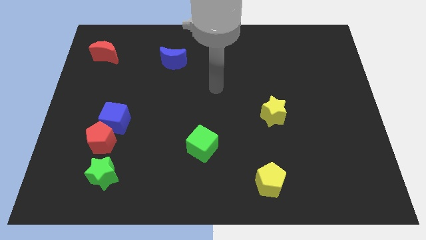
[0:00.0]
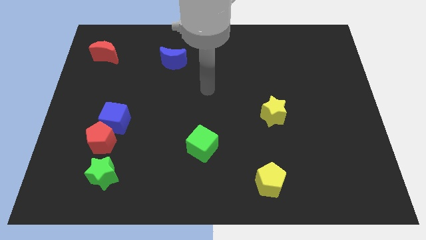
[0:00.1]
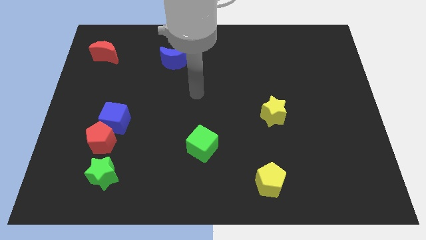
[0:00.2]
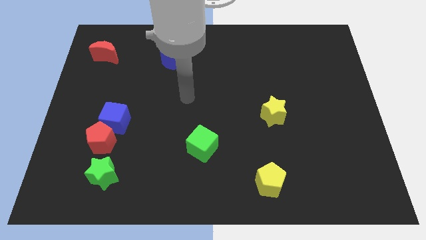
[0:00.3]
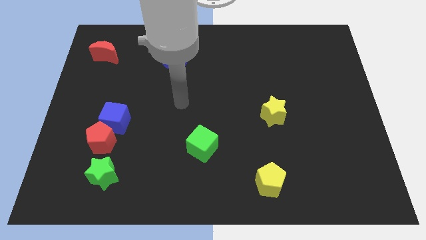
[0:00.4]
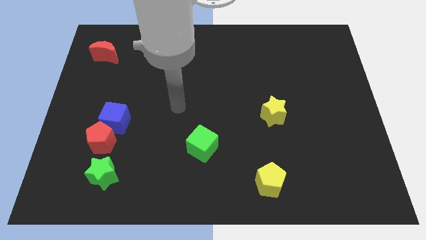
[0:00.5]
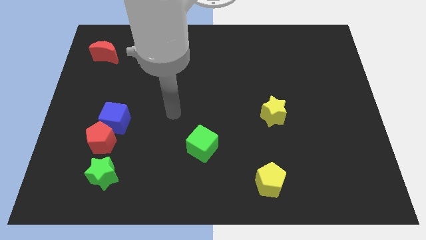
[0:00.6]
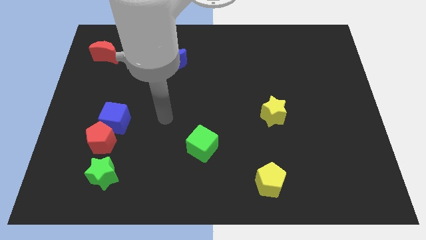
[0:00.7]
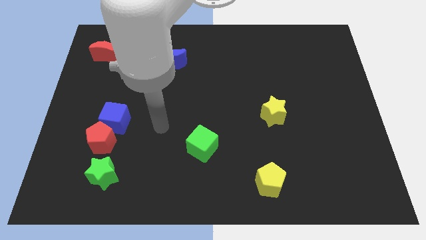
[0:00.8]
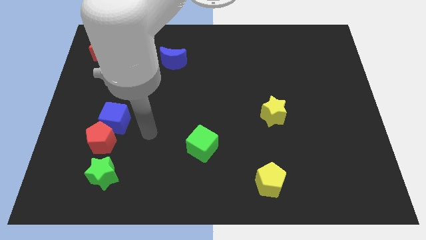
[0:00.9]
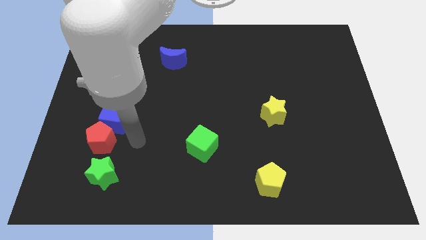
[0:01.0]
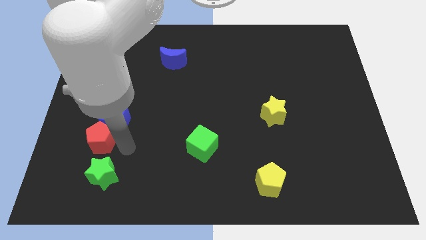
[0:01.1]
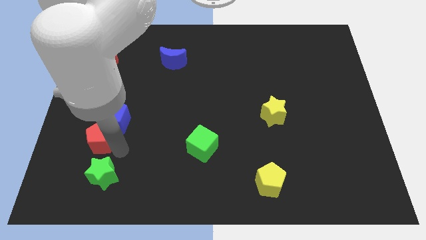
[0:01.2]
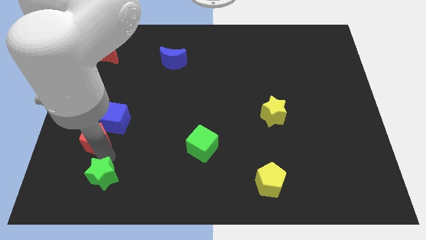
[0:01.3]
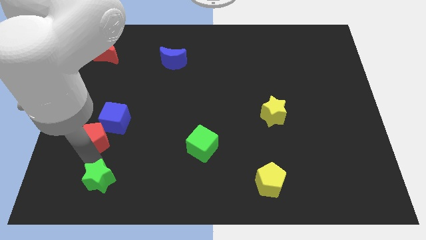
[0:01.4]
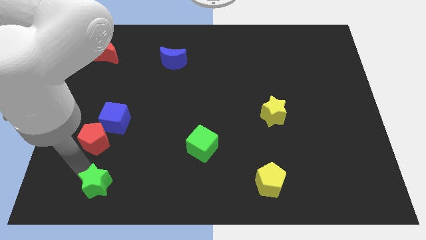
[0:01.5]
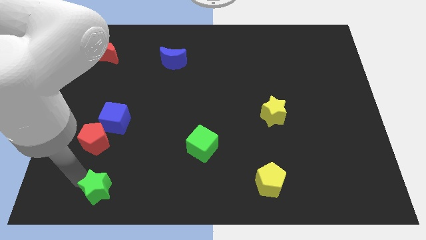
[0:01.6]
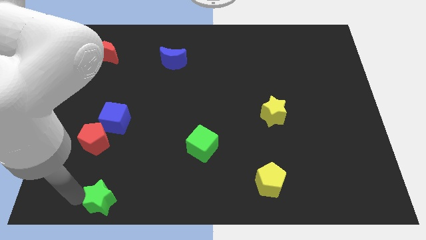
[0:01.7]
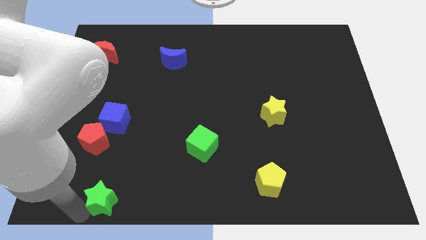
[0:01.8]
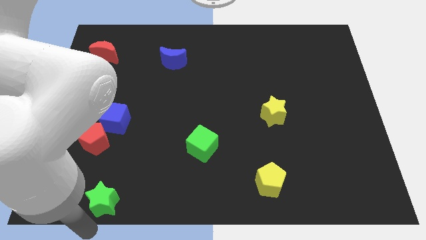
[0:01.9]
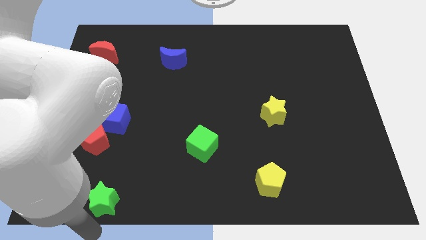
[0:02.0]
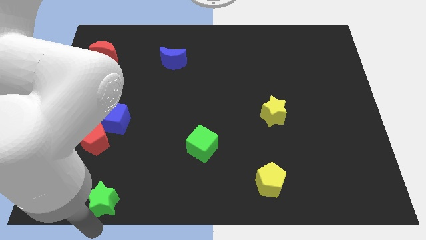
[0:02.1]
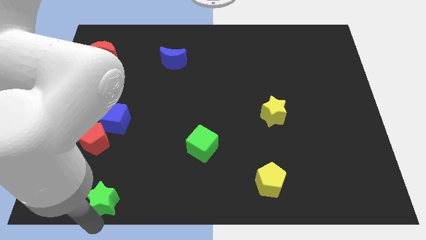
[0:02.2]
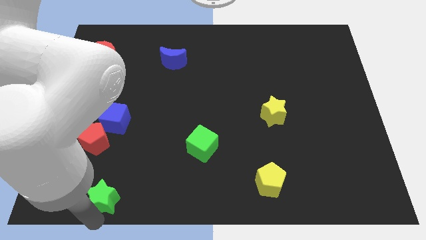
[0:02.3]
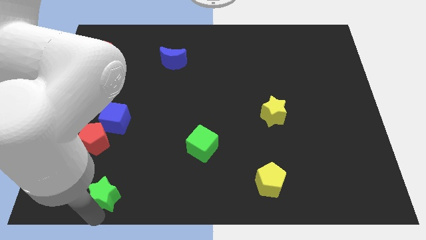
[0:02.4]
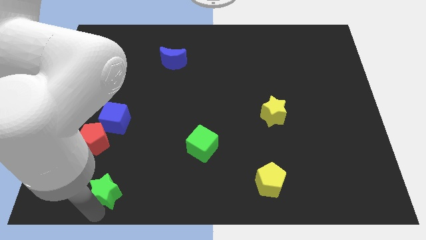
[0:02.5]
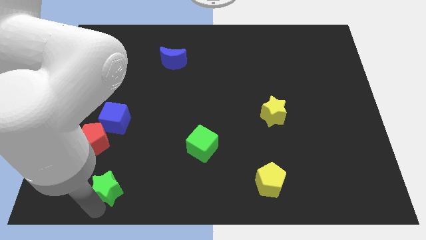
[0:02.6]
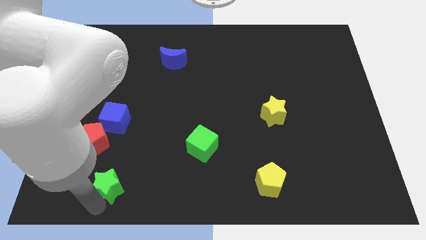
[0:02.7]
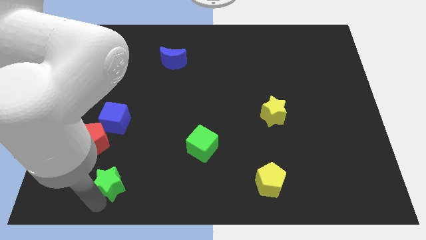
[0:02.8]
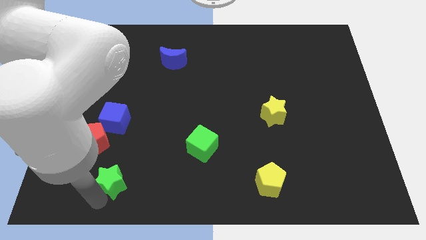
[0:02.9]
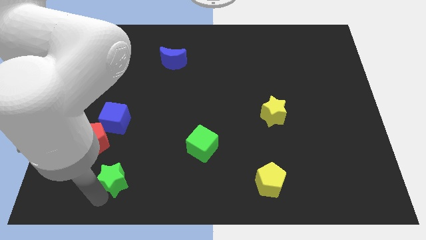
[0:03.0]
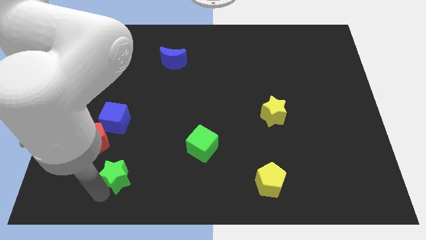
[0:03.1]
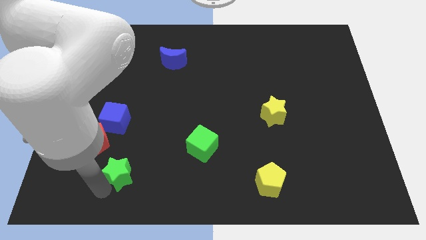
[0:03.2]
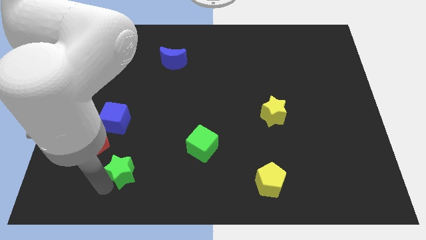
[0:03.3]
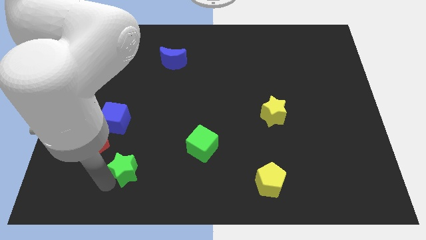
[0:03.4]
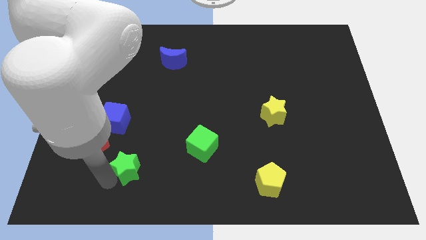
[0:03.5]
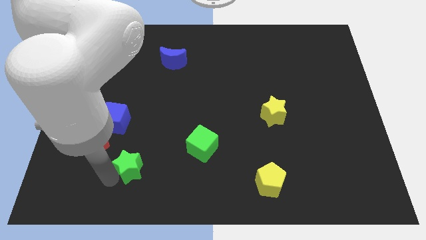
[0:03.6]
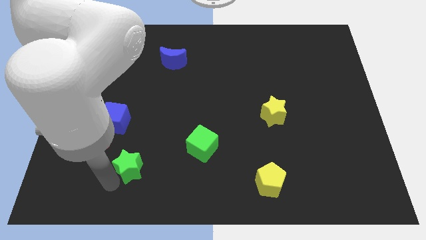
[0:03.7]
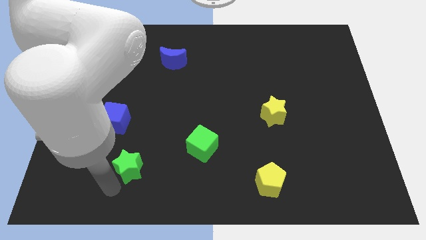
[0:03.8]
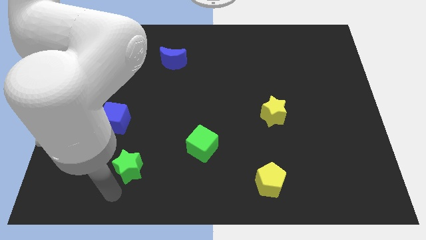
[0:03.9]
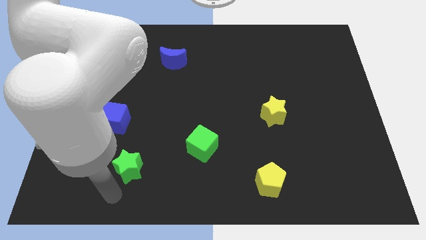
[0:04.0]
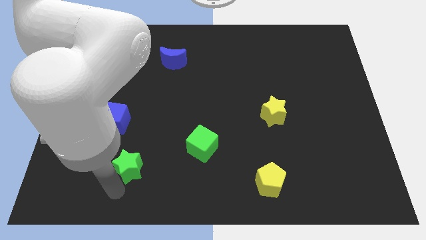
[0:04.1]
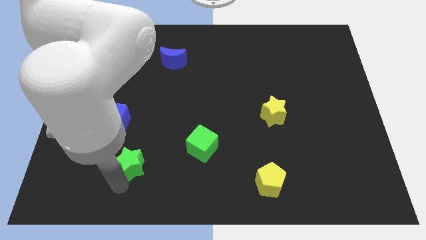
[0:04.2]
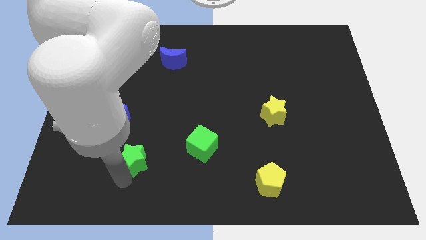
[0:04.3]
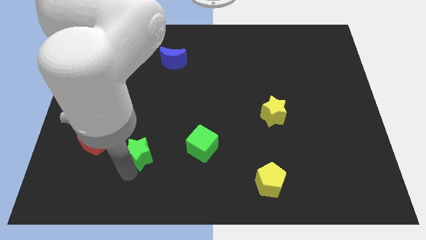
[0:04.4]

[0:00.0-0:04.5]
push the green star upwards and right slightly

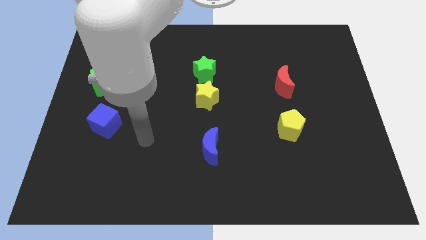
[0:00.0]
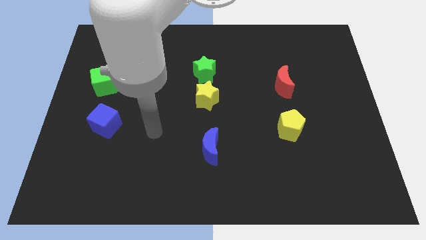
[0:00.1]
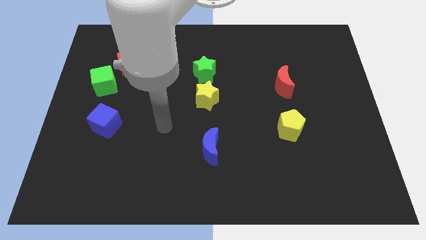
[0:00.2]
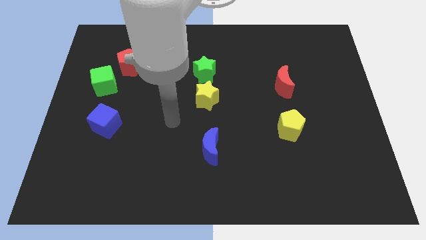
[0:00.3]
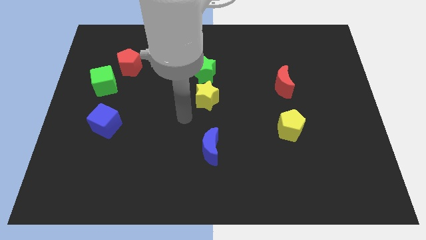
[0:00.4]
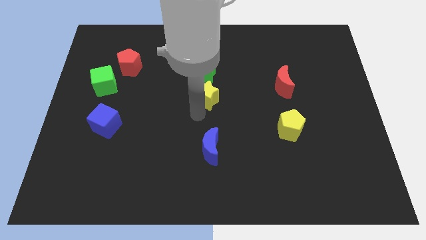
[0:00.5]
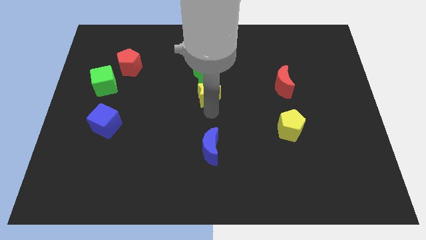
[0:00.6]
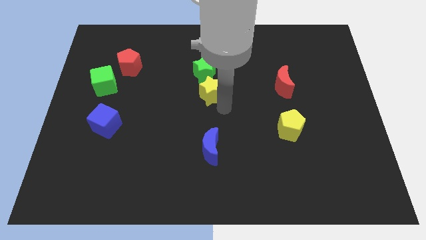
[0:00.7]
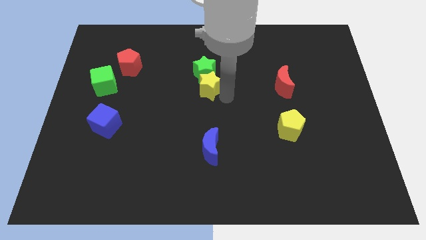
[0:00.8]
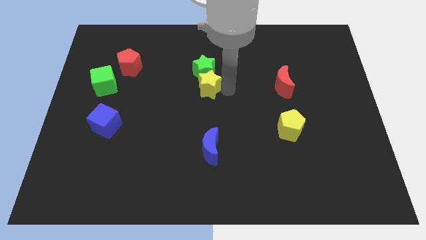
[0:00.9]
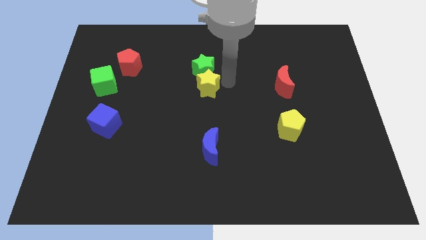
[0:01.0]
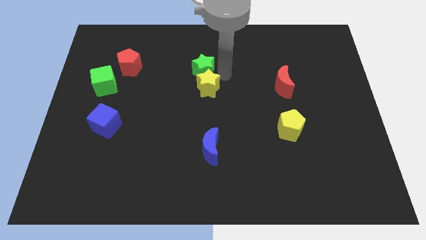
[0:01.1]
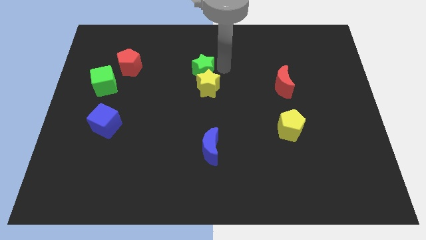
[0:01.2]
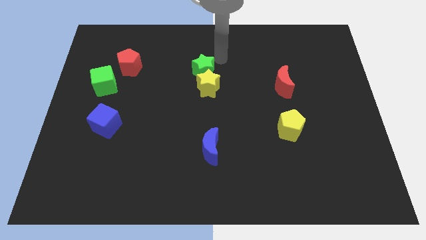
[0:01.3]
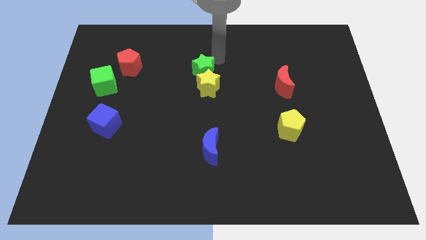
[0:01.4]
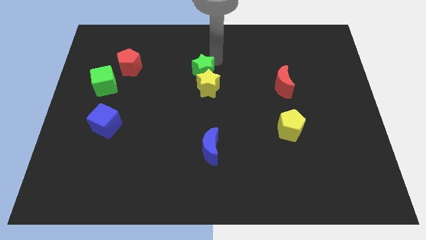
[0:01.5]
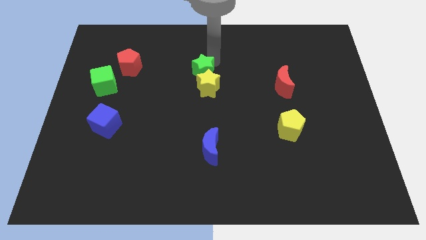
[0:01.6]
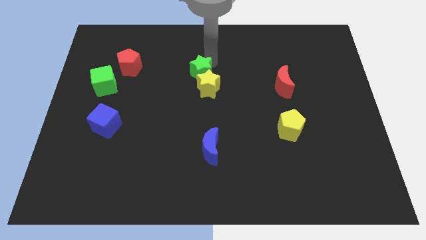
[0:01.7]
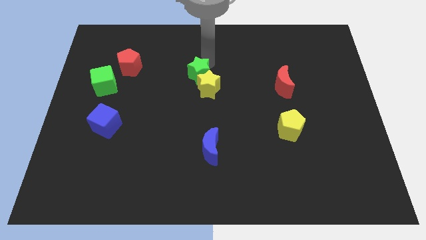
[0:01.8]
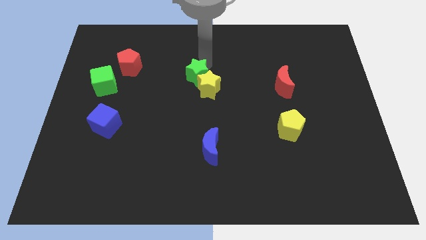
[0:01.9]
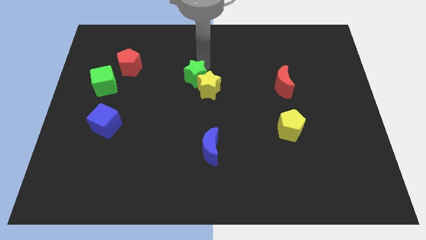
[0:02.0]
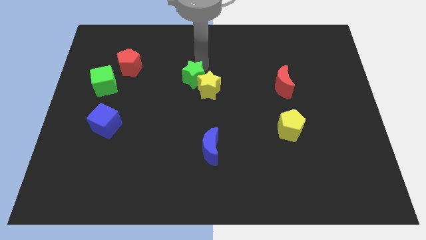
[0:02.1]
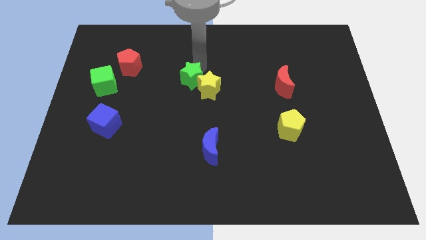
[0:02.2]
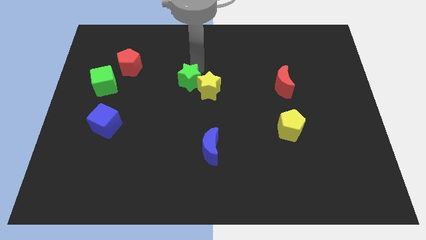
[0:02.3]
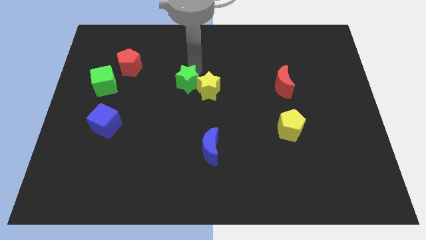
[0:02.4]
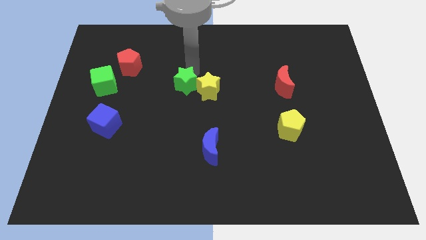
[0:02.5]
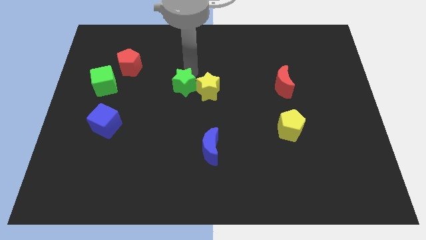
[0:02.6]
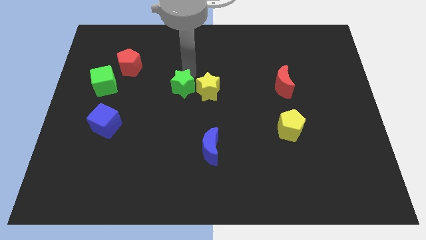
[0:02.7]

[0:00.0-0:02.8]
slightly move the green star down and then to the left

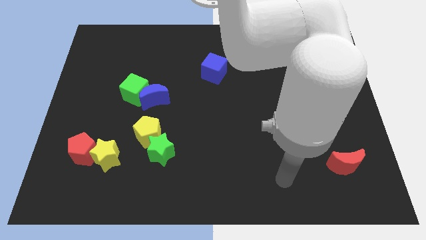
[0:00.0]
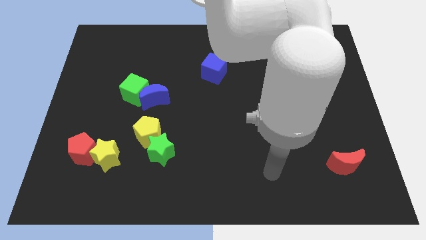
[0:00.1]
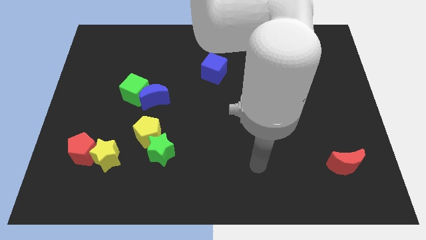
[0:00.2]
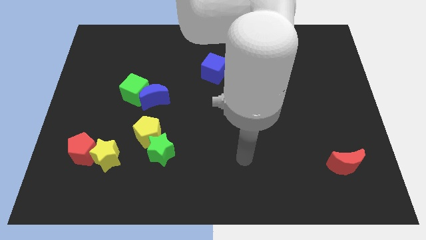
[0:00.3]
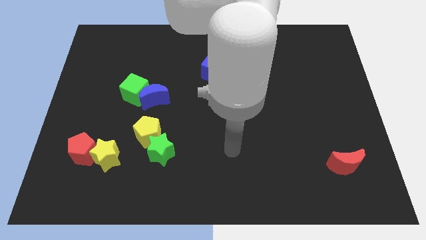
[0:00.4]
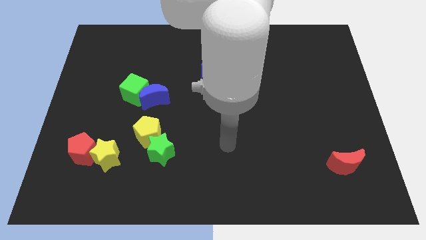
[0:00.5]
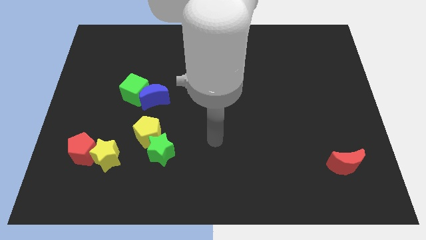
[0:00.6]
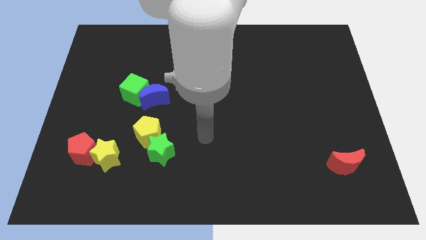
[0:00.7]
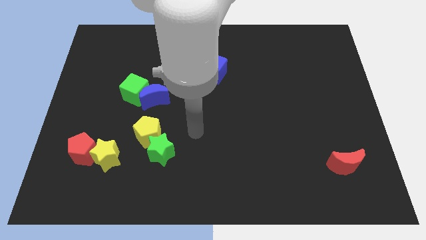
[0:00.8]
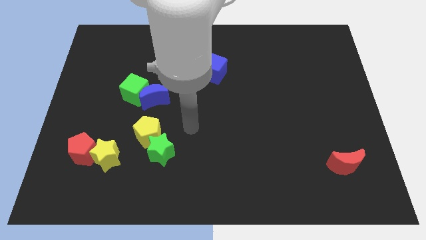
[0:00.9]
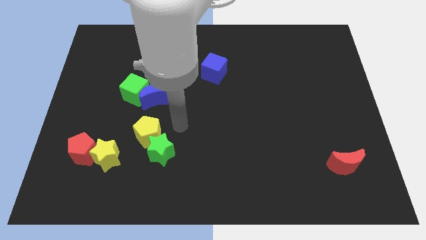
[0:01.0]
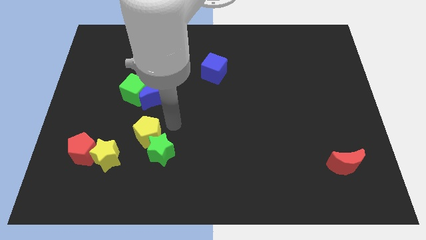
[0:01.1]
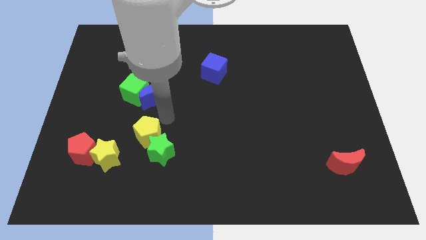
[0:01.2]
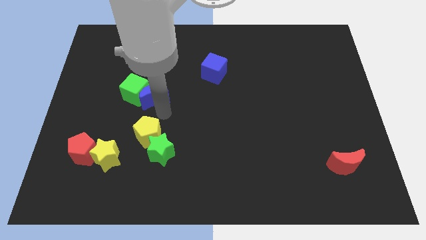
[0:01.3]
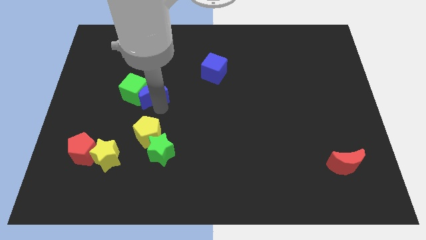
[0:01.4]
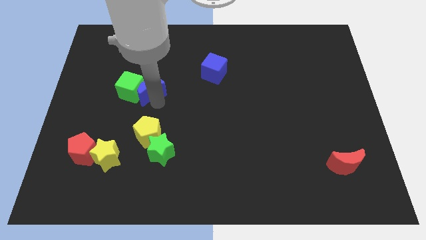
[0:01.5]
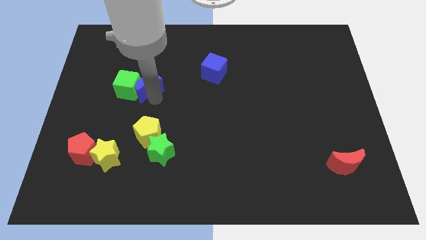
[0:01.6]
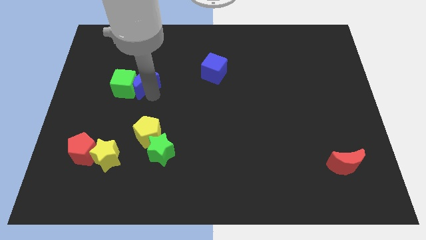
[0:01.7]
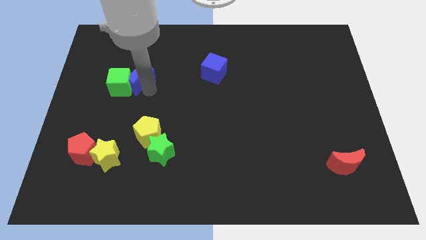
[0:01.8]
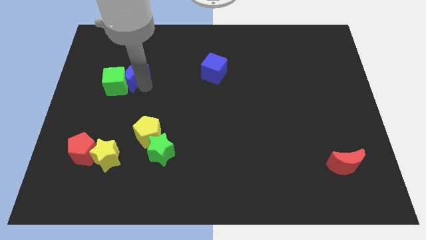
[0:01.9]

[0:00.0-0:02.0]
move the blue moon up and to the left a bit
